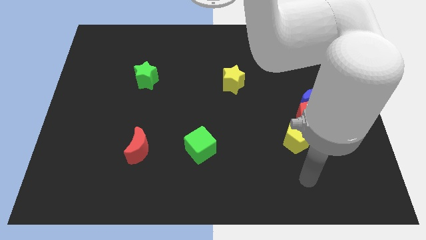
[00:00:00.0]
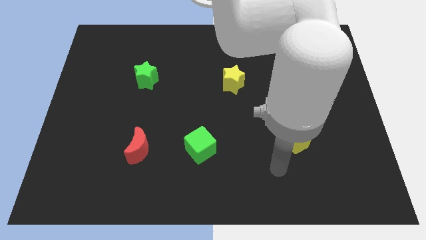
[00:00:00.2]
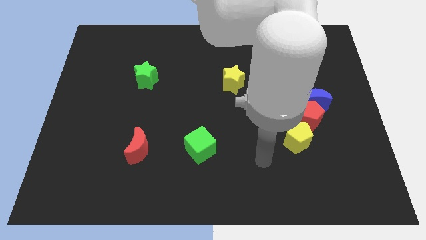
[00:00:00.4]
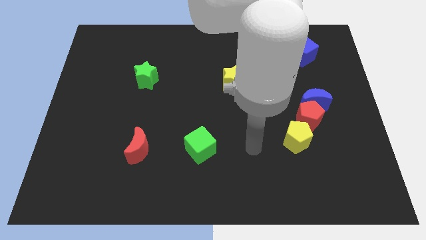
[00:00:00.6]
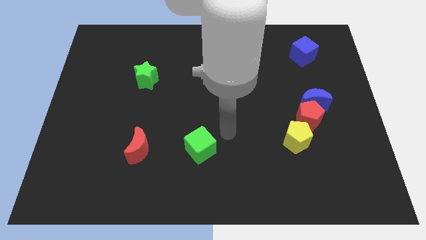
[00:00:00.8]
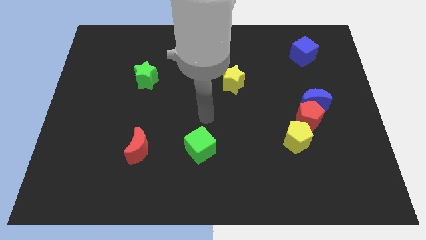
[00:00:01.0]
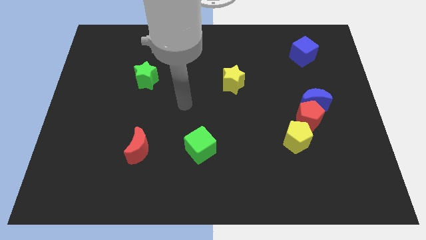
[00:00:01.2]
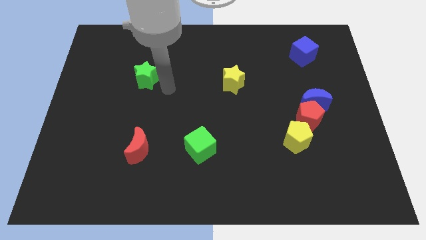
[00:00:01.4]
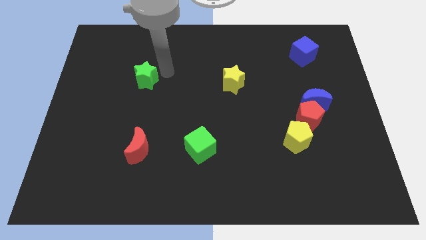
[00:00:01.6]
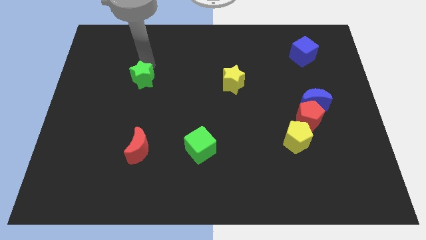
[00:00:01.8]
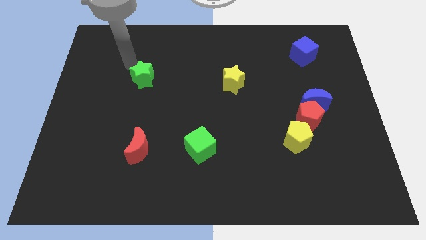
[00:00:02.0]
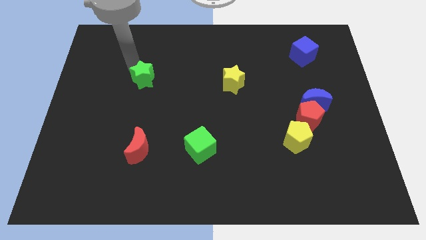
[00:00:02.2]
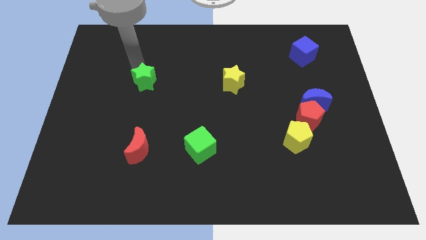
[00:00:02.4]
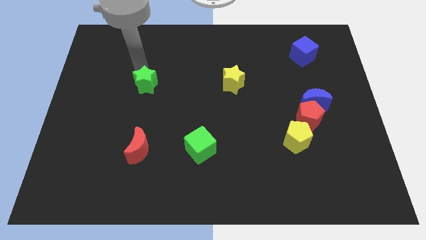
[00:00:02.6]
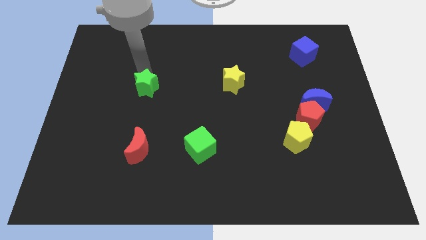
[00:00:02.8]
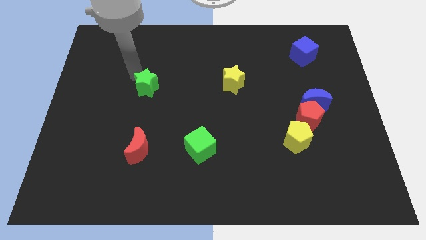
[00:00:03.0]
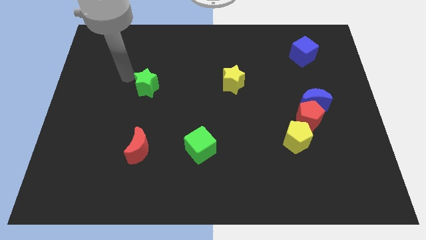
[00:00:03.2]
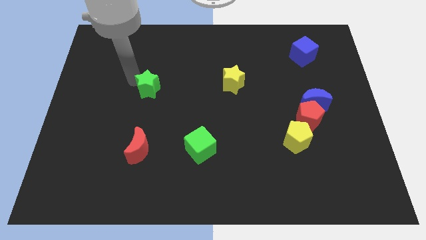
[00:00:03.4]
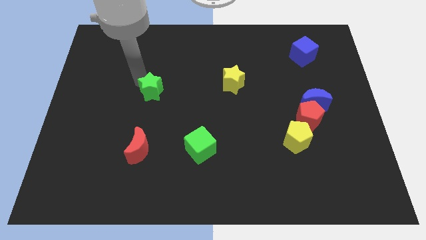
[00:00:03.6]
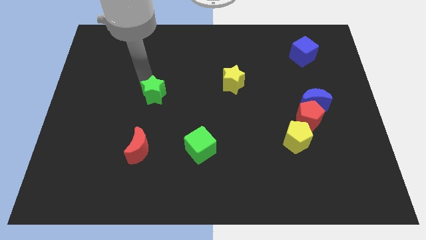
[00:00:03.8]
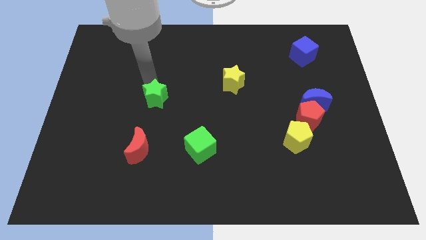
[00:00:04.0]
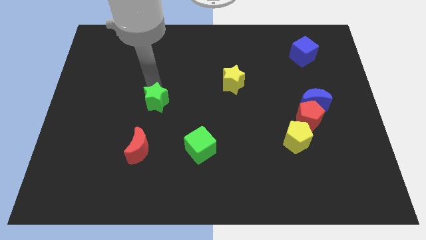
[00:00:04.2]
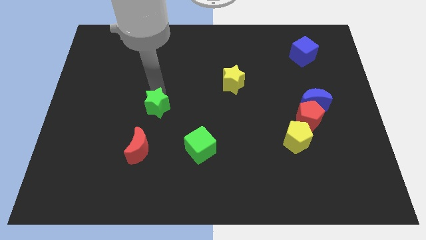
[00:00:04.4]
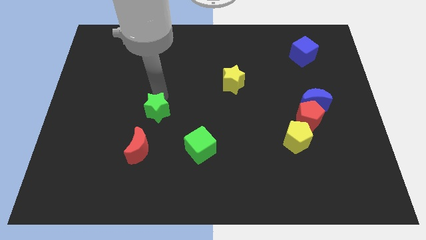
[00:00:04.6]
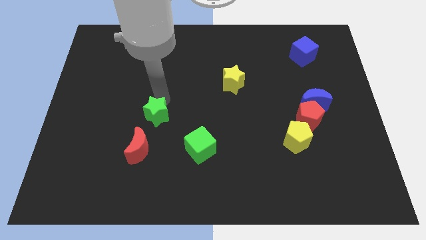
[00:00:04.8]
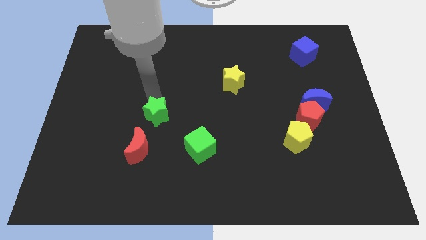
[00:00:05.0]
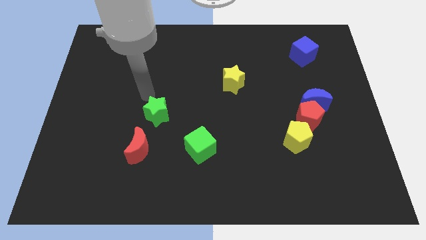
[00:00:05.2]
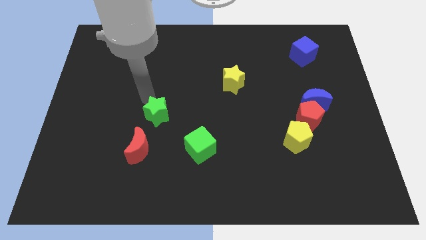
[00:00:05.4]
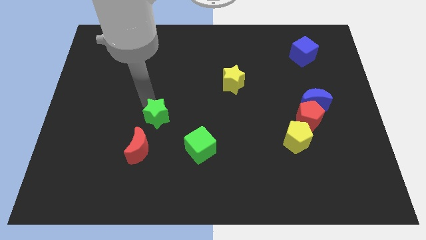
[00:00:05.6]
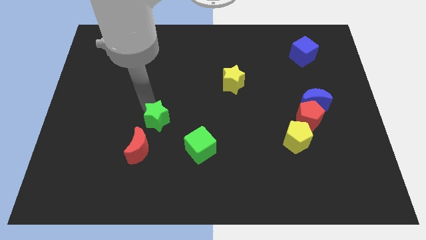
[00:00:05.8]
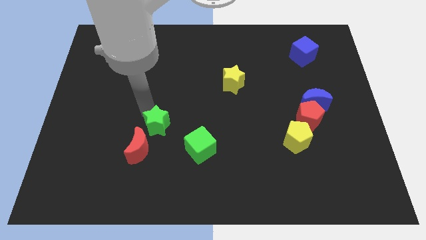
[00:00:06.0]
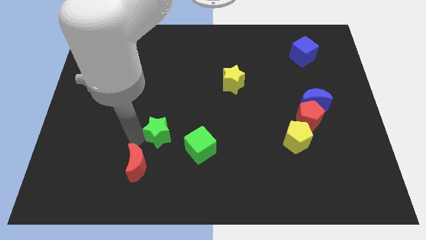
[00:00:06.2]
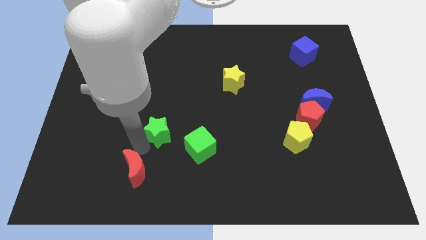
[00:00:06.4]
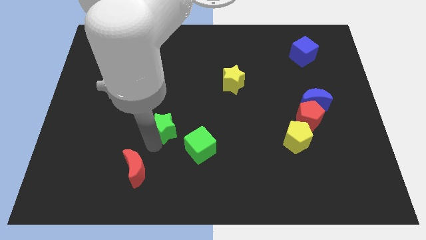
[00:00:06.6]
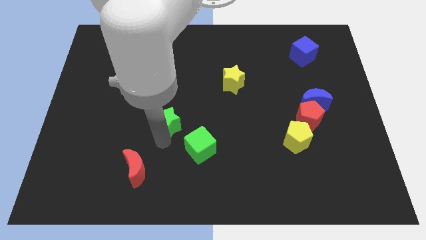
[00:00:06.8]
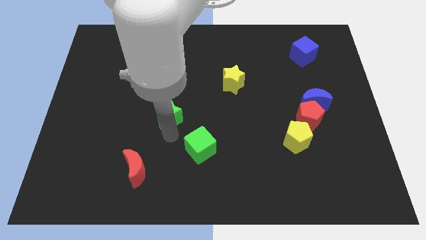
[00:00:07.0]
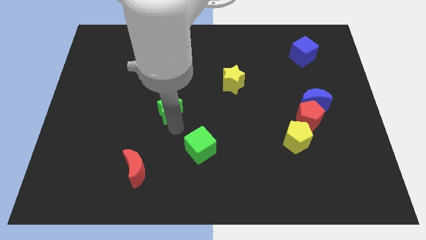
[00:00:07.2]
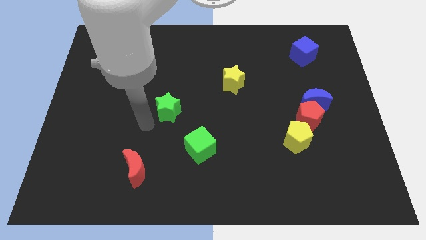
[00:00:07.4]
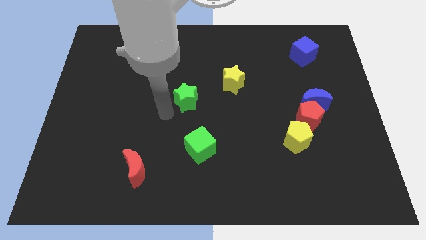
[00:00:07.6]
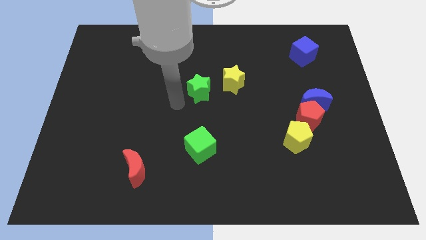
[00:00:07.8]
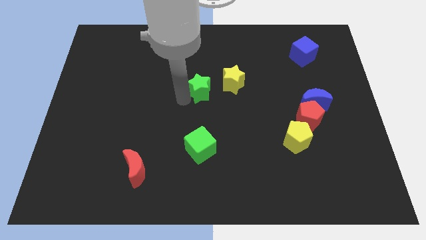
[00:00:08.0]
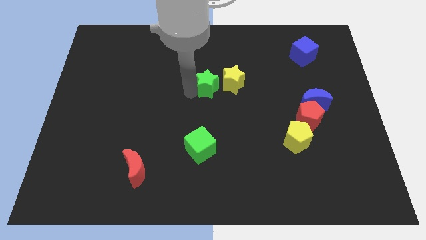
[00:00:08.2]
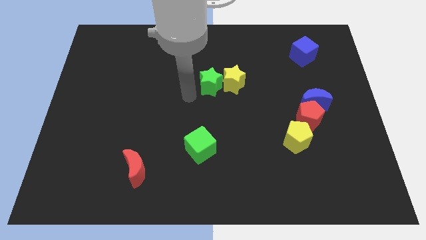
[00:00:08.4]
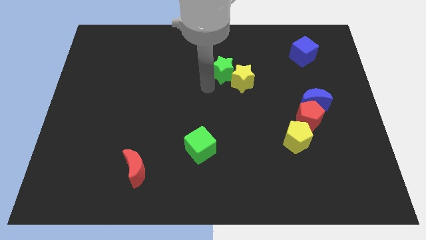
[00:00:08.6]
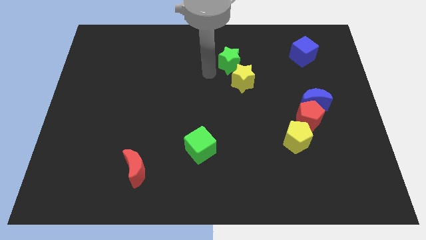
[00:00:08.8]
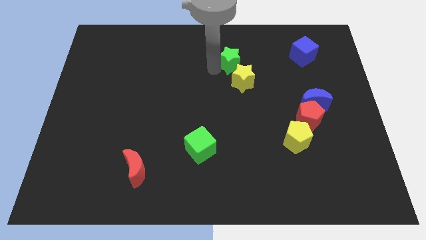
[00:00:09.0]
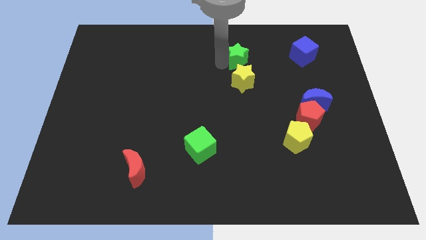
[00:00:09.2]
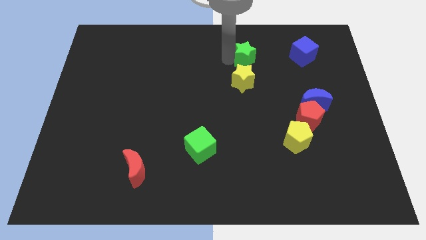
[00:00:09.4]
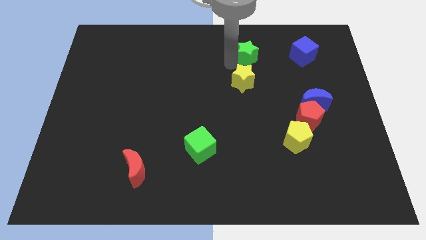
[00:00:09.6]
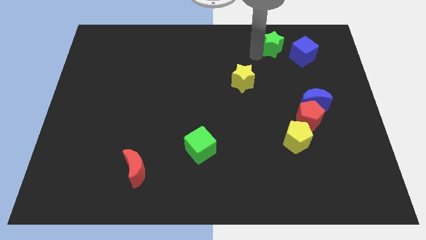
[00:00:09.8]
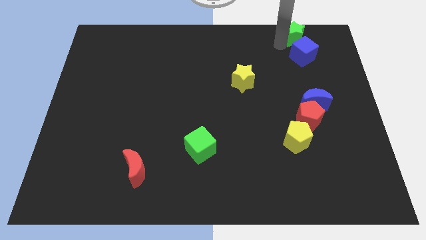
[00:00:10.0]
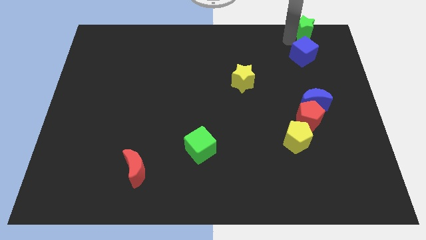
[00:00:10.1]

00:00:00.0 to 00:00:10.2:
slide the green star to the top right

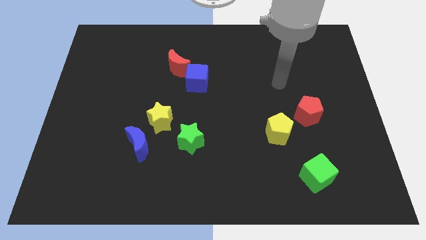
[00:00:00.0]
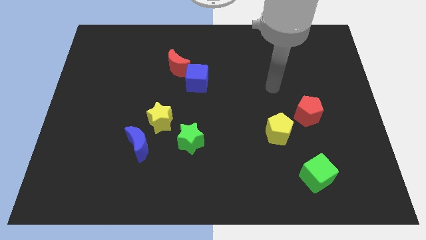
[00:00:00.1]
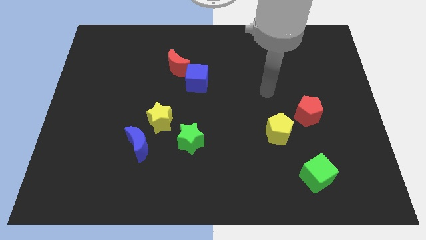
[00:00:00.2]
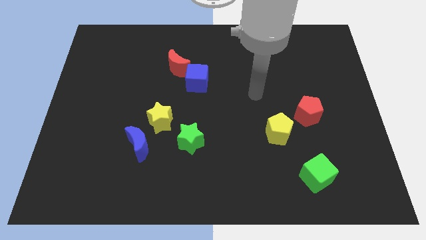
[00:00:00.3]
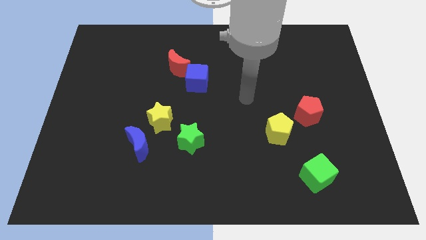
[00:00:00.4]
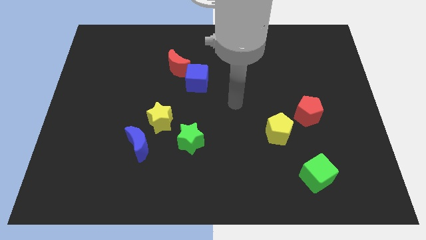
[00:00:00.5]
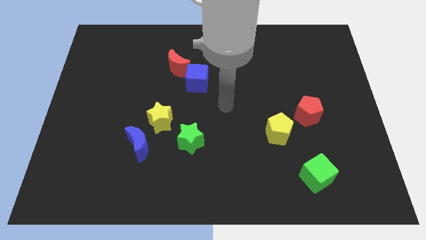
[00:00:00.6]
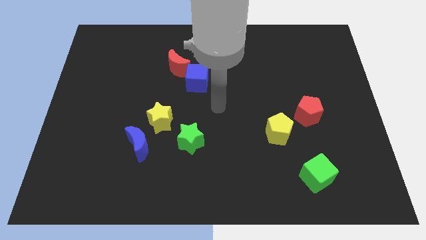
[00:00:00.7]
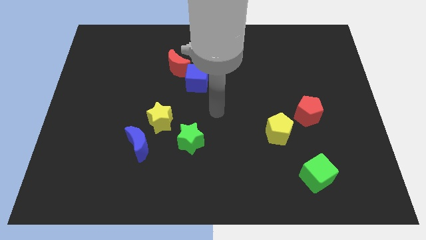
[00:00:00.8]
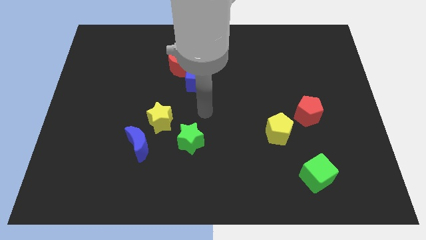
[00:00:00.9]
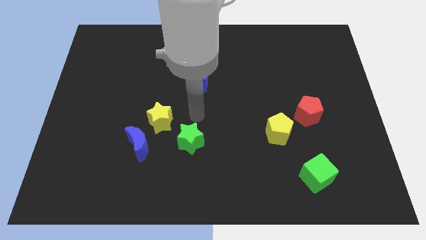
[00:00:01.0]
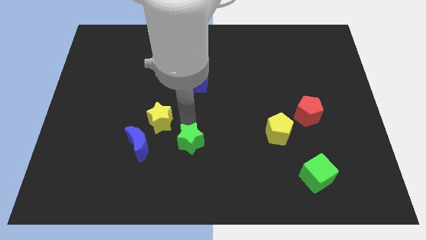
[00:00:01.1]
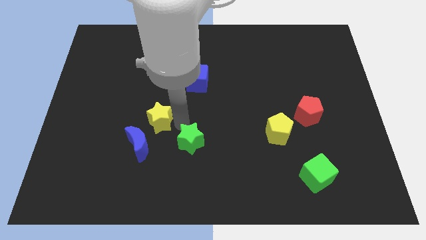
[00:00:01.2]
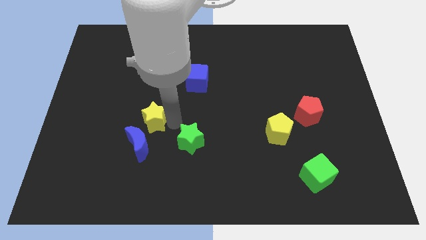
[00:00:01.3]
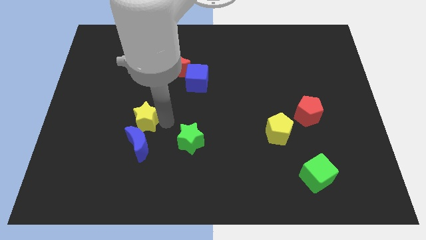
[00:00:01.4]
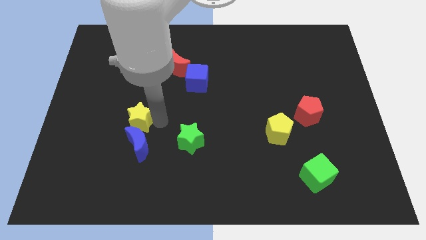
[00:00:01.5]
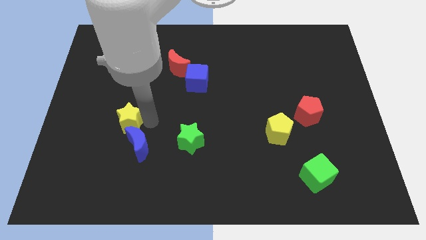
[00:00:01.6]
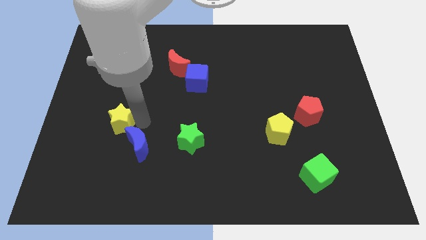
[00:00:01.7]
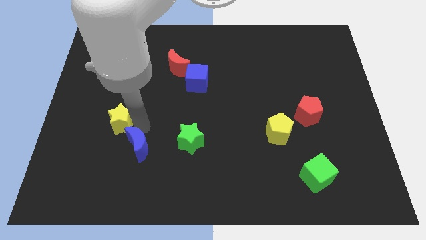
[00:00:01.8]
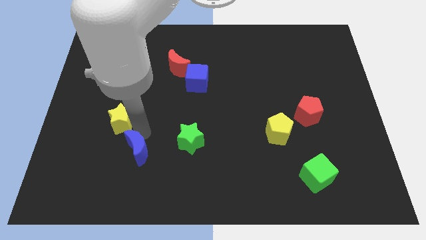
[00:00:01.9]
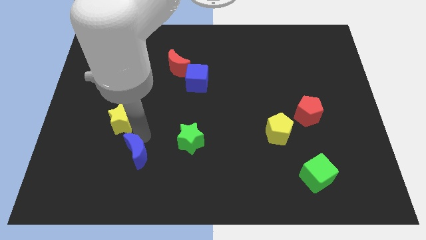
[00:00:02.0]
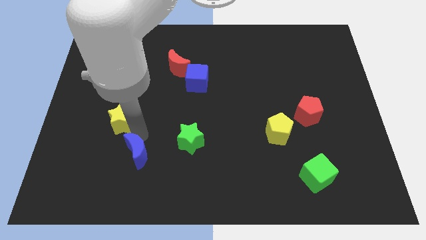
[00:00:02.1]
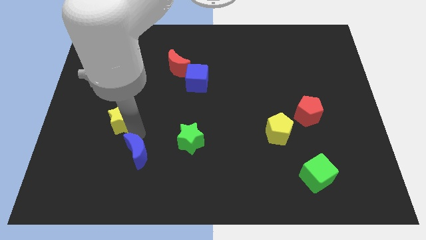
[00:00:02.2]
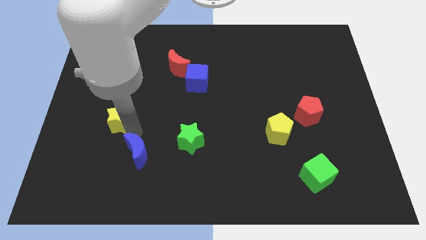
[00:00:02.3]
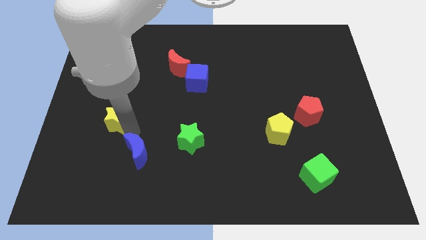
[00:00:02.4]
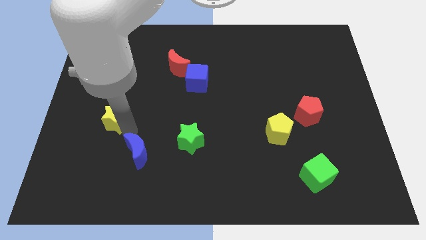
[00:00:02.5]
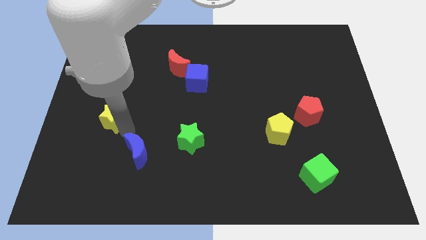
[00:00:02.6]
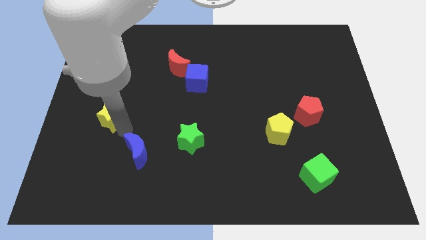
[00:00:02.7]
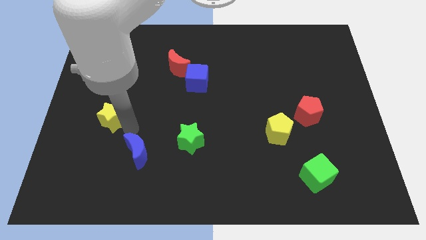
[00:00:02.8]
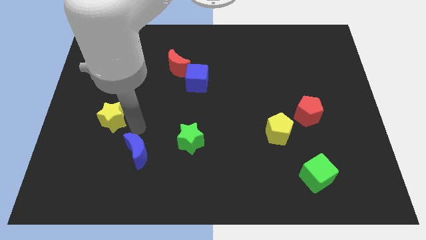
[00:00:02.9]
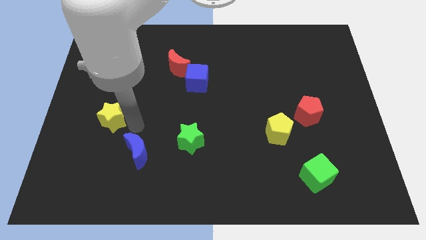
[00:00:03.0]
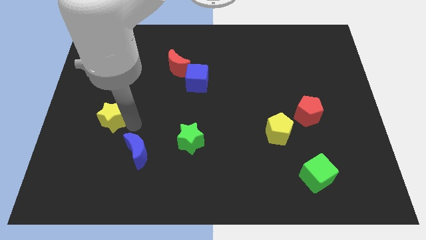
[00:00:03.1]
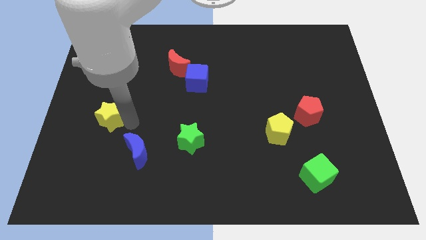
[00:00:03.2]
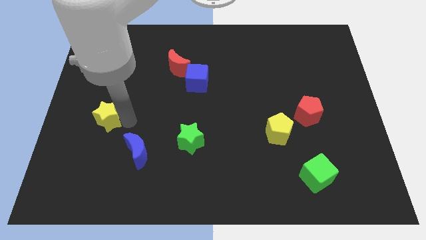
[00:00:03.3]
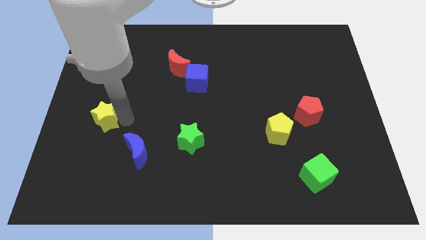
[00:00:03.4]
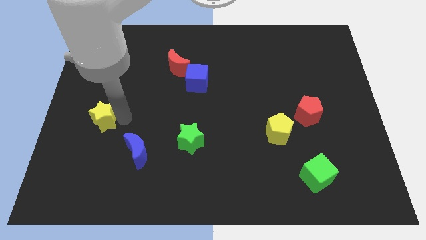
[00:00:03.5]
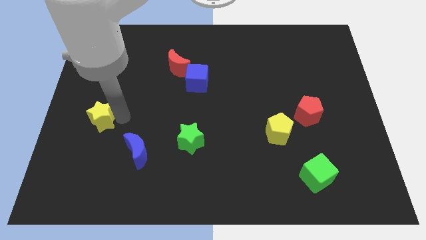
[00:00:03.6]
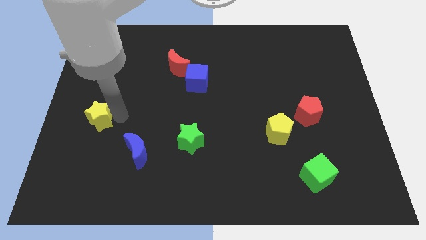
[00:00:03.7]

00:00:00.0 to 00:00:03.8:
slide the yellow star to the left side of the board
